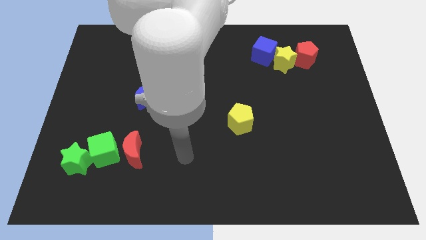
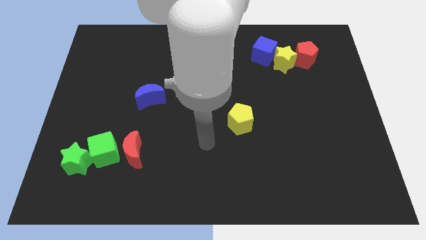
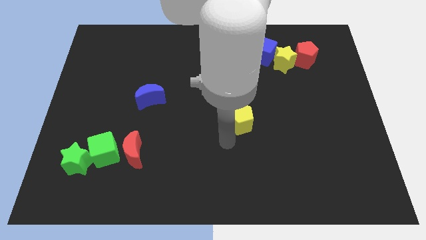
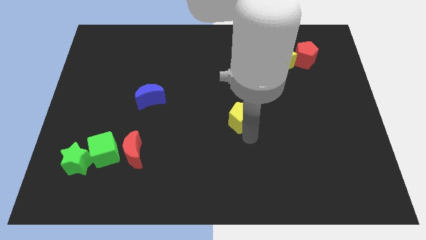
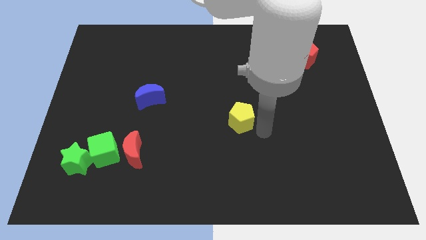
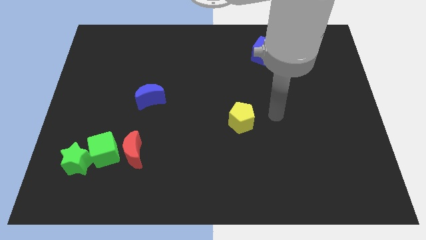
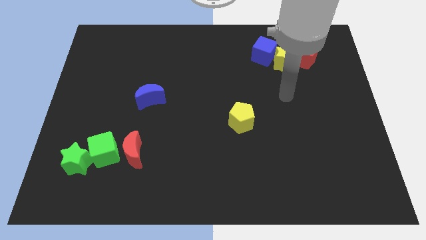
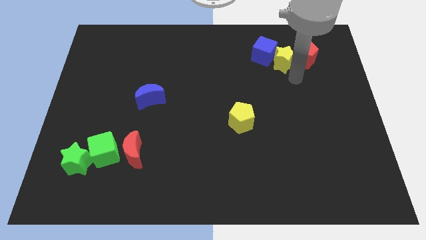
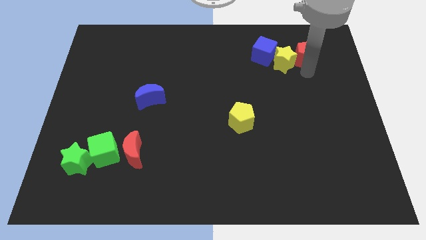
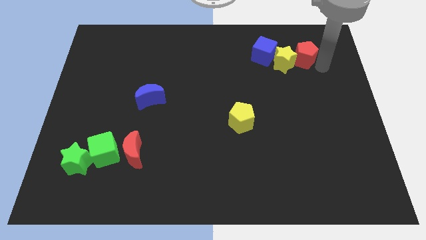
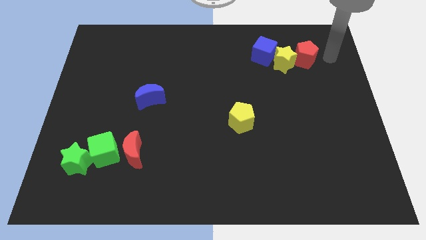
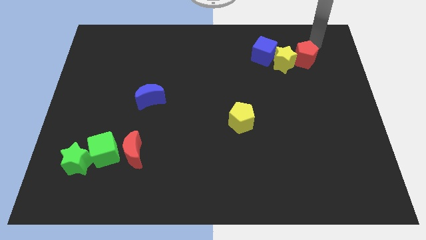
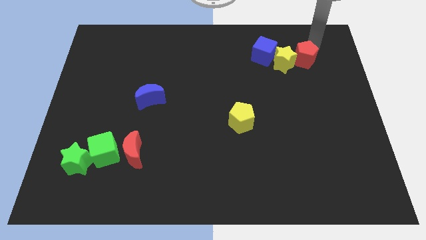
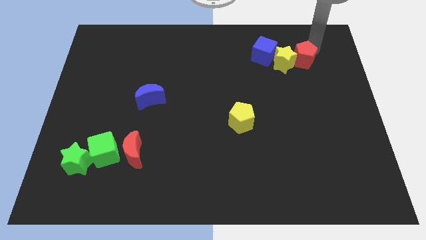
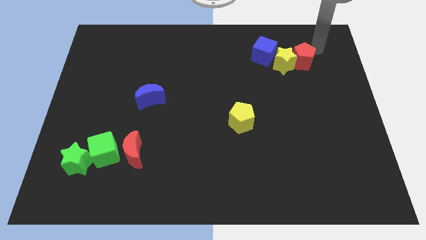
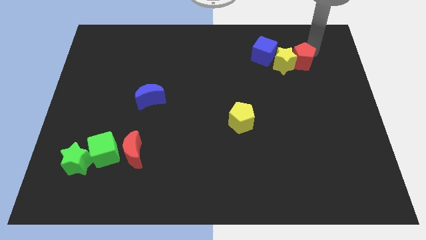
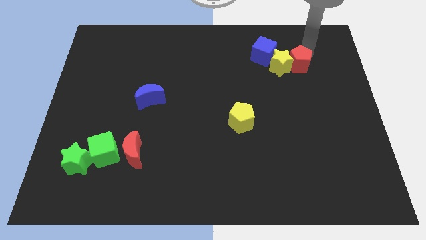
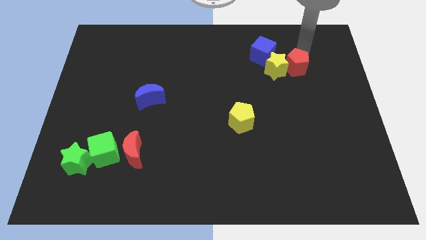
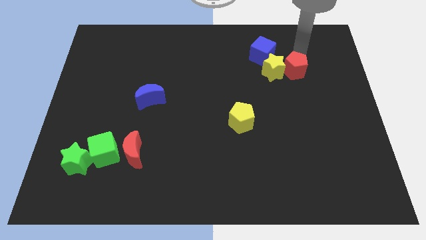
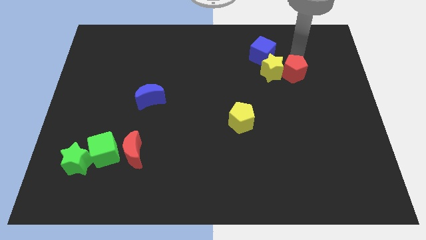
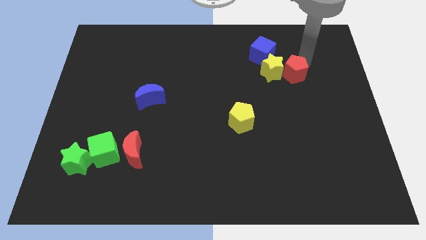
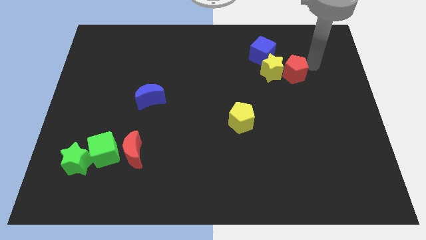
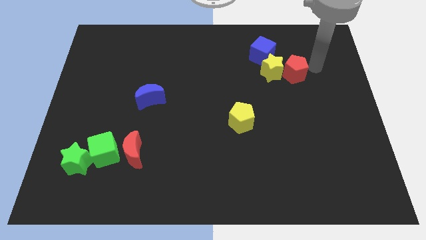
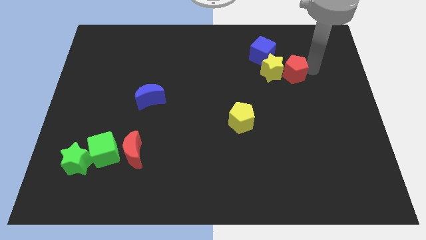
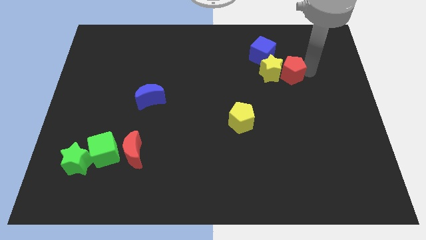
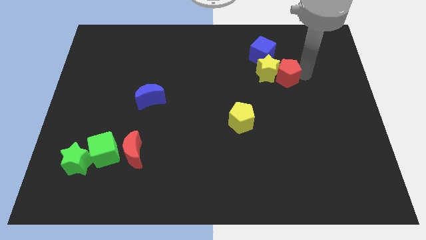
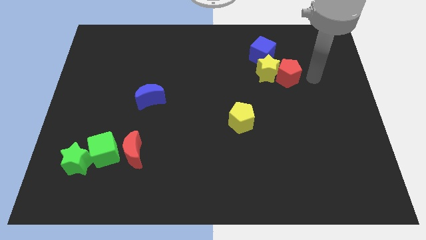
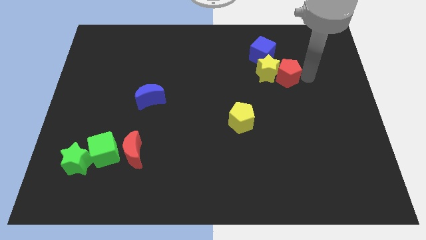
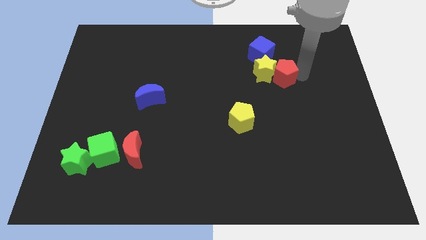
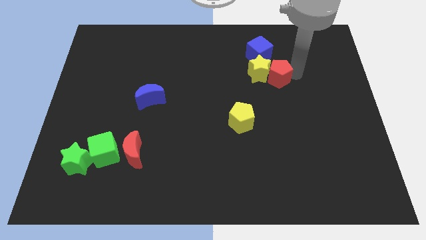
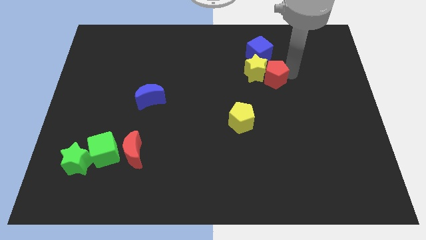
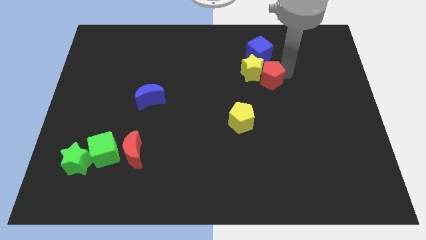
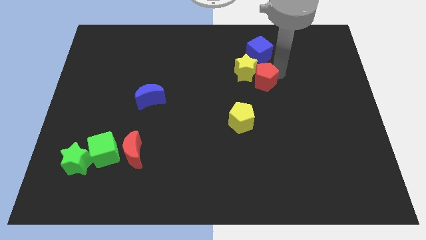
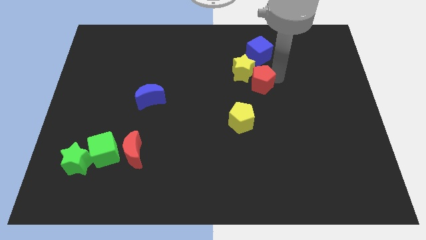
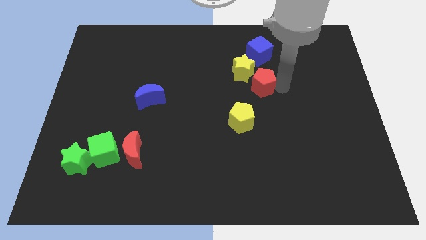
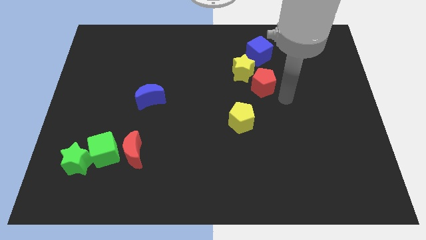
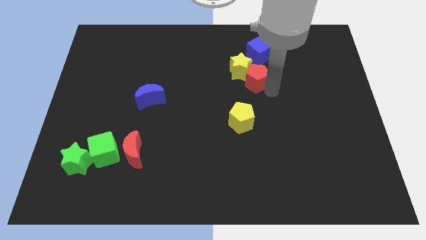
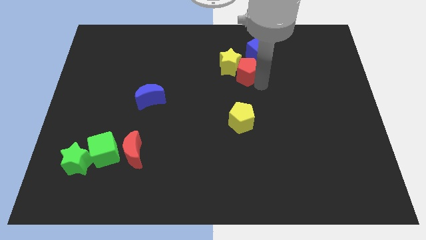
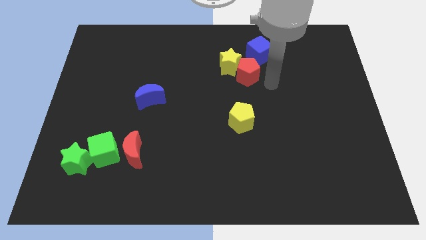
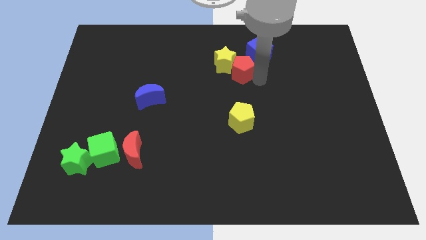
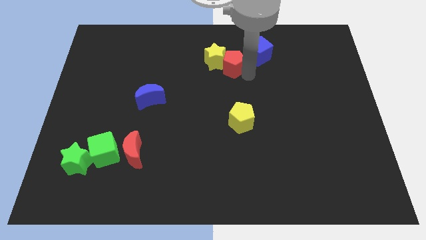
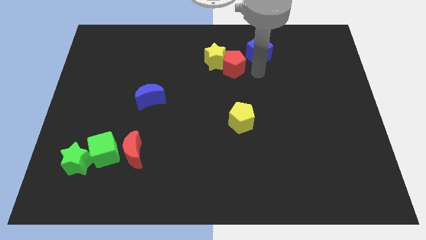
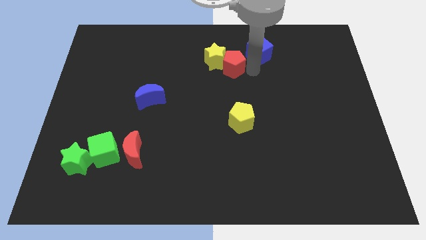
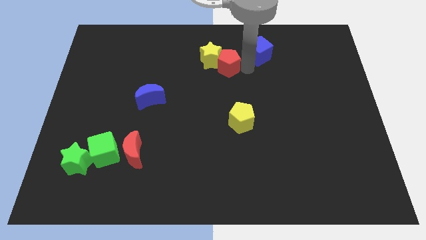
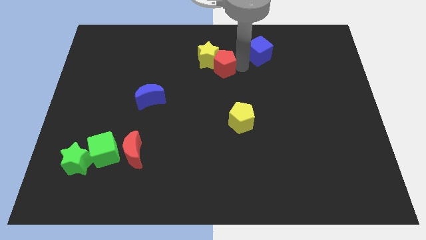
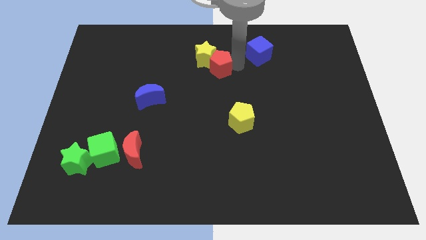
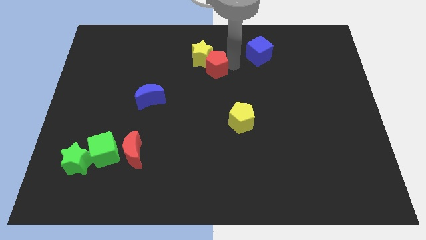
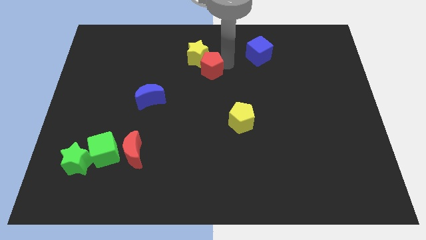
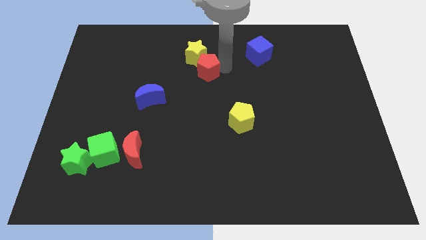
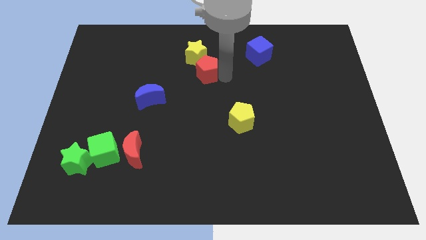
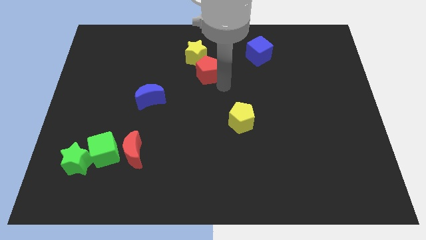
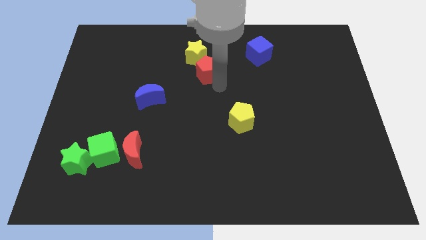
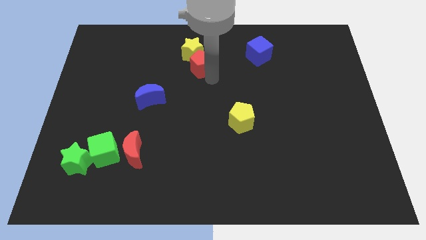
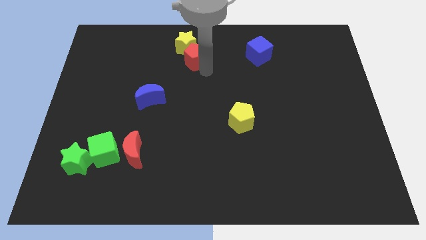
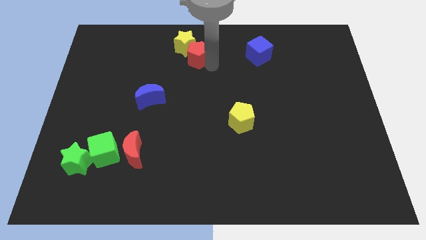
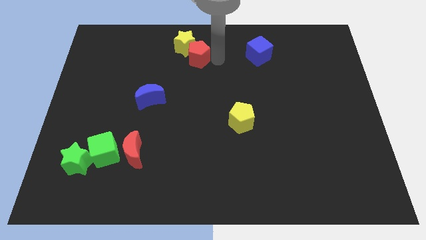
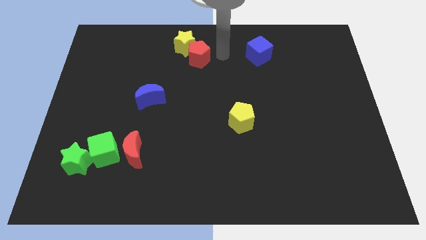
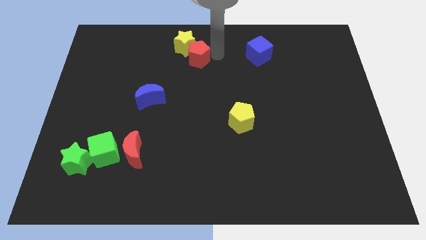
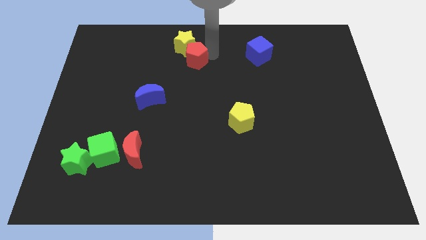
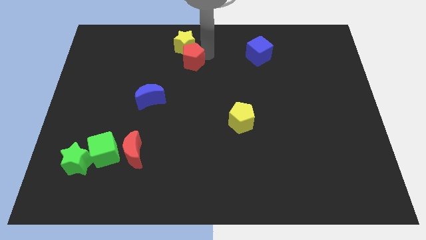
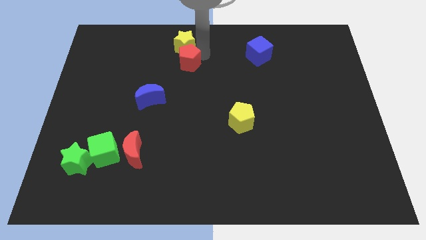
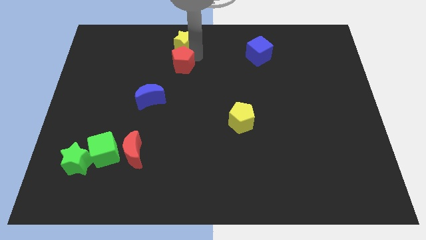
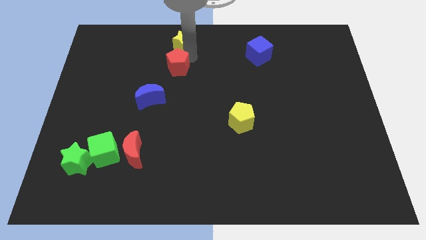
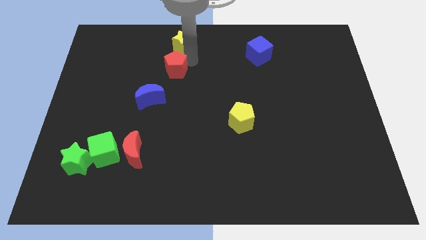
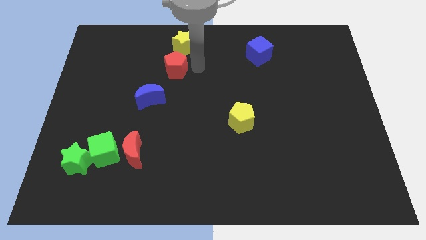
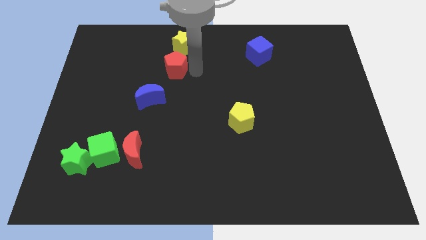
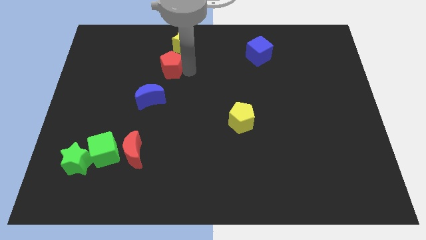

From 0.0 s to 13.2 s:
put the red pentagon to the top of the blue moon

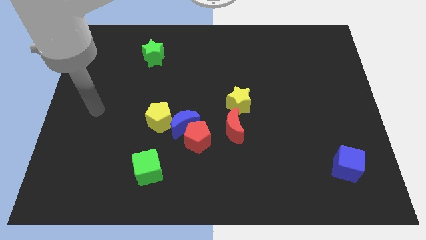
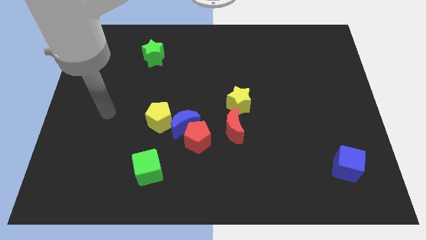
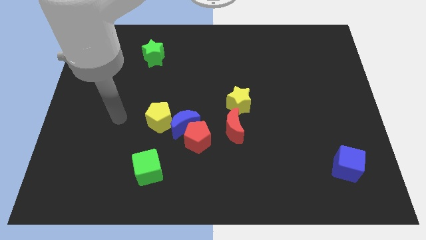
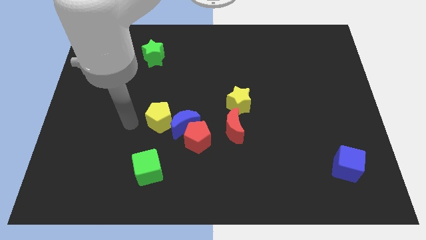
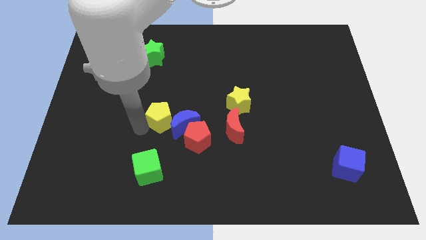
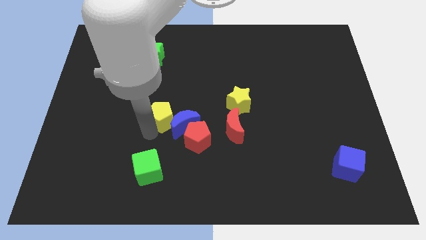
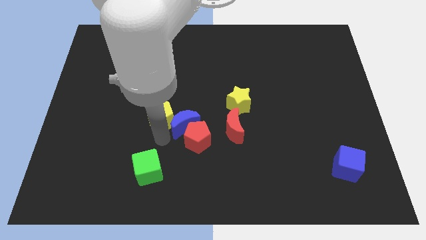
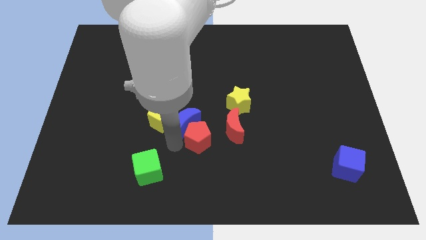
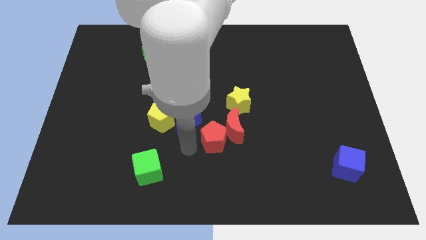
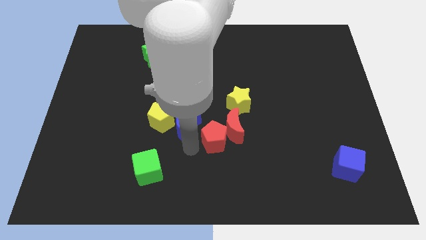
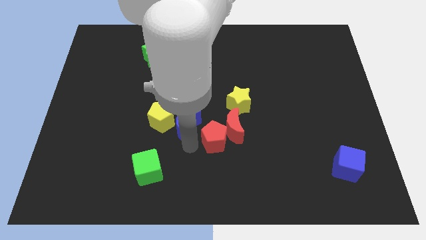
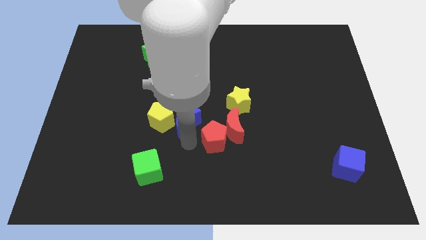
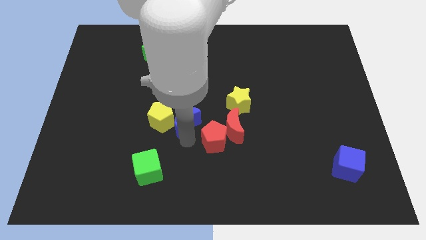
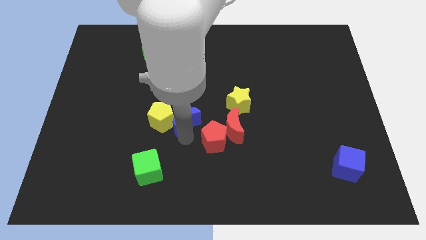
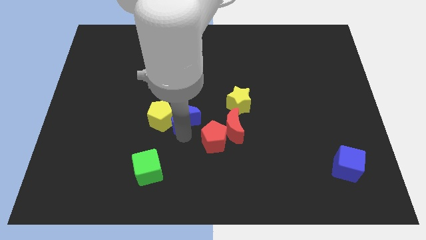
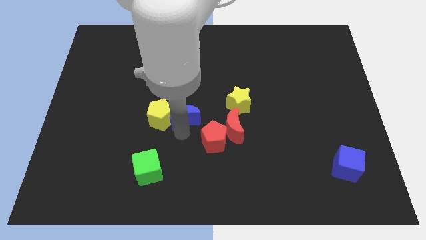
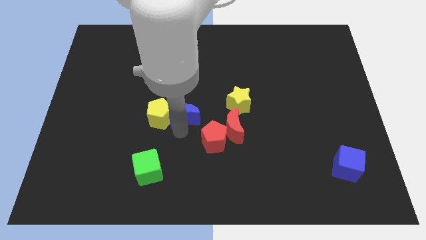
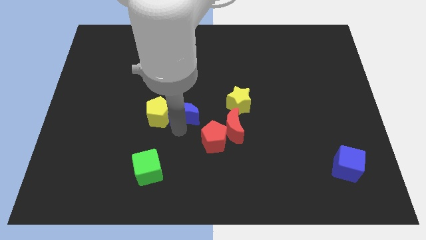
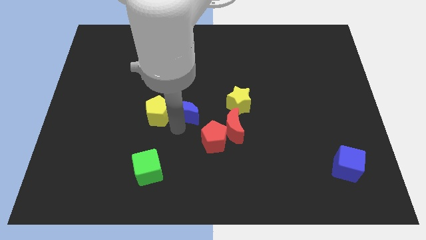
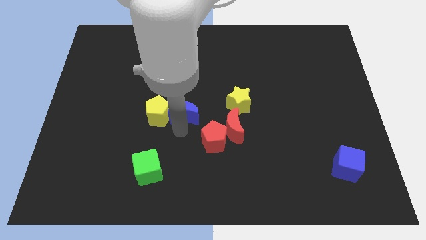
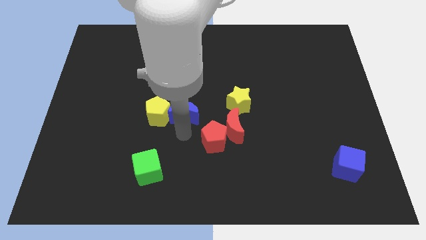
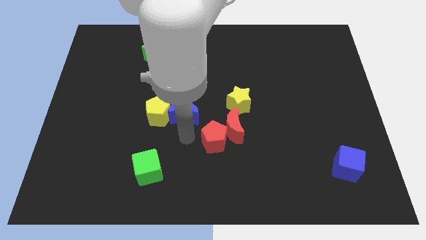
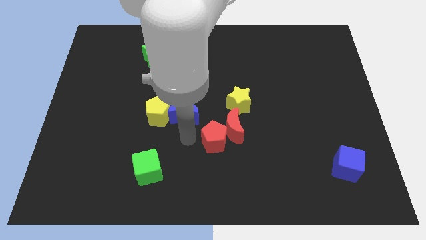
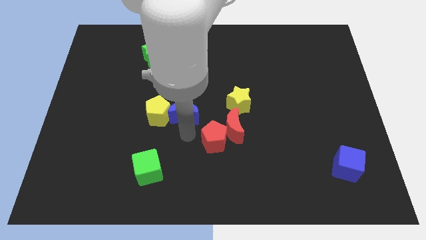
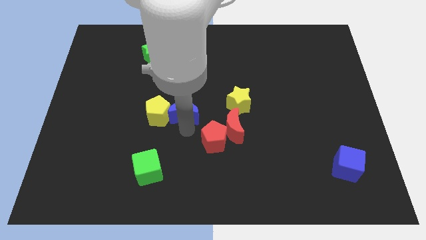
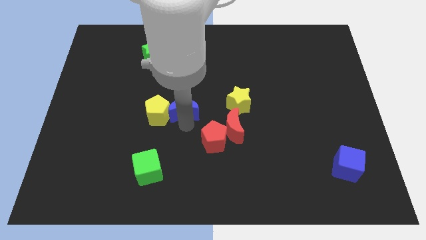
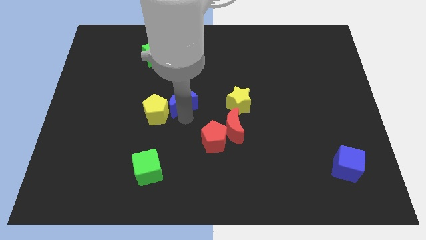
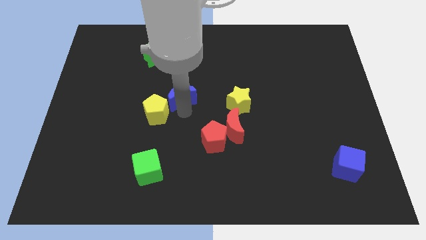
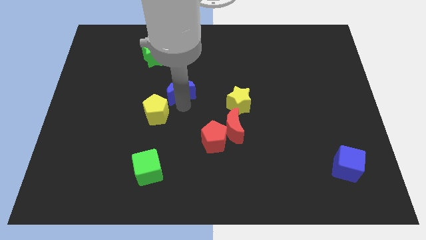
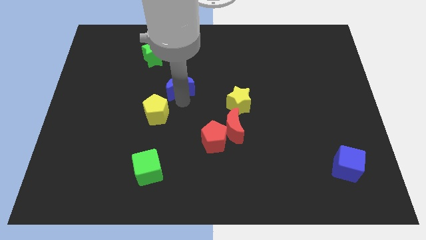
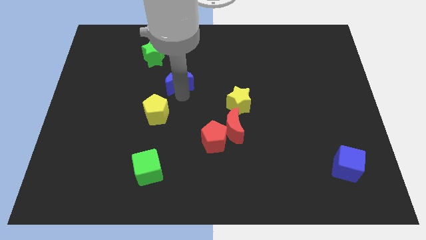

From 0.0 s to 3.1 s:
push the blue moon to the bottom right of the green star
